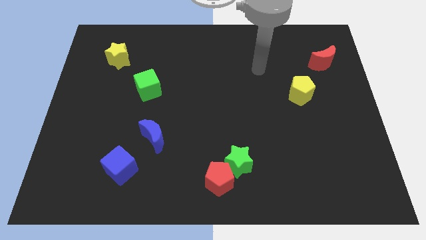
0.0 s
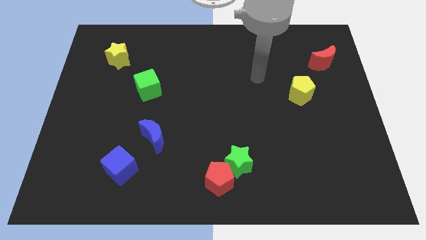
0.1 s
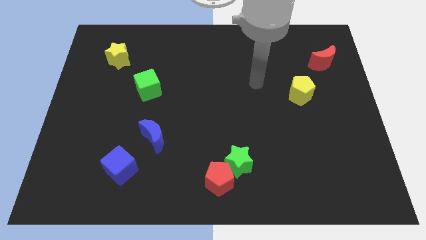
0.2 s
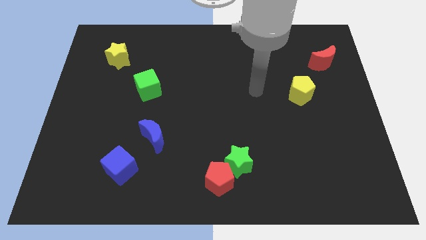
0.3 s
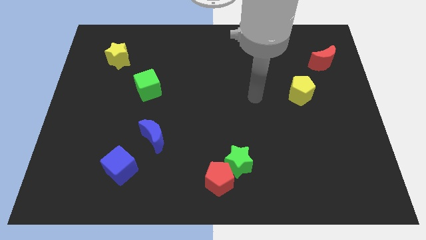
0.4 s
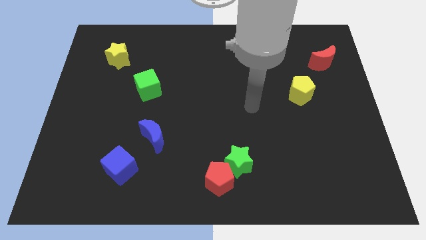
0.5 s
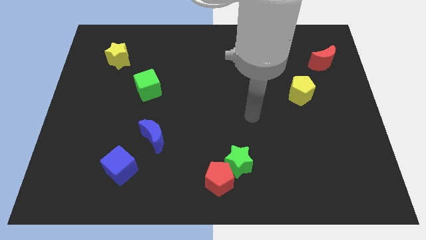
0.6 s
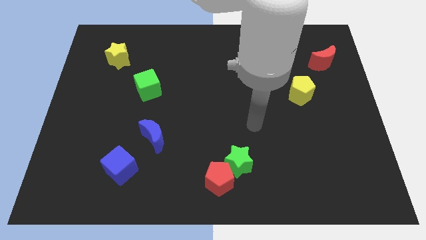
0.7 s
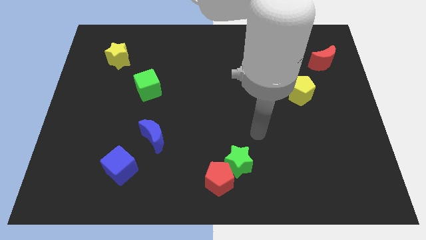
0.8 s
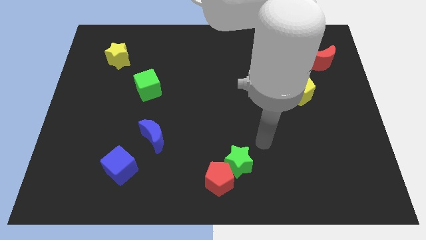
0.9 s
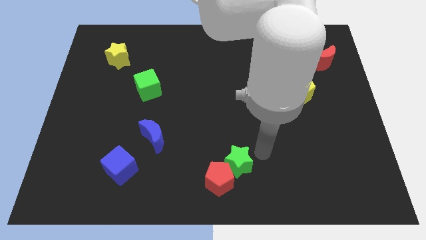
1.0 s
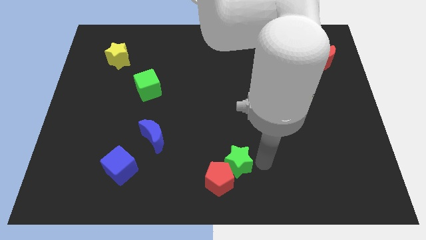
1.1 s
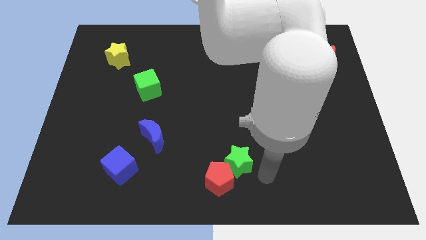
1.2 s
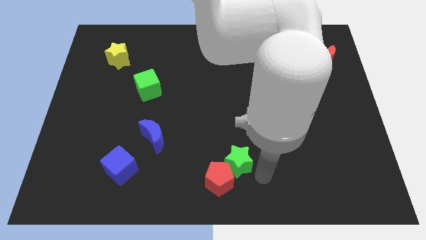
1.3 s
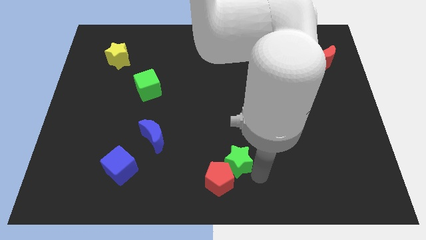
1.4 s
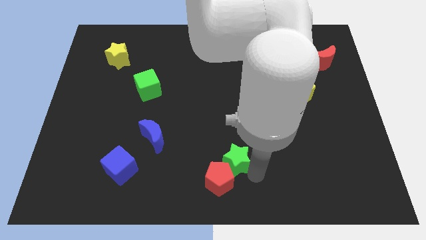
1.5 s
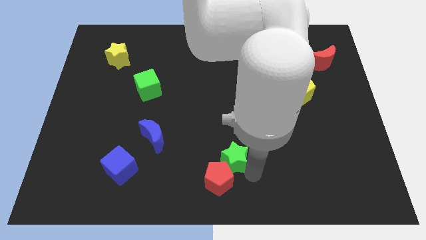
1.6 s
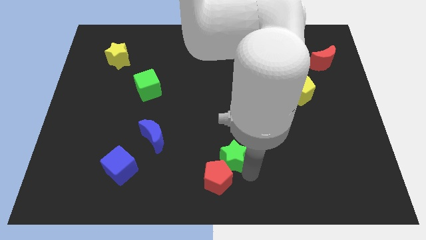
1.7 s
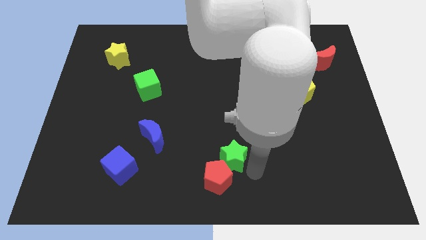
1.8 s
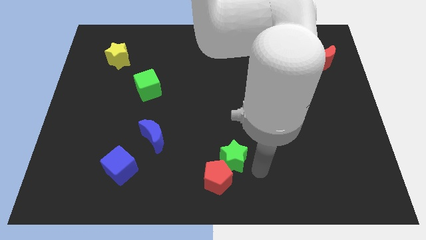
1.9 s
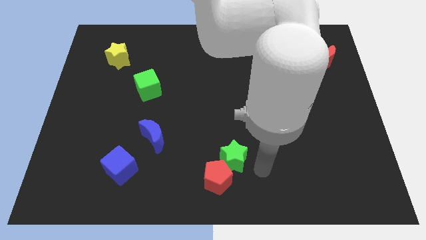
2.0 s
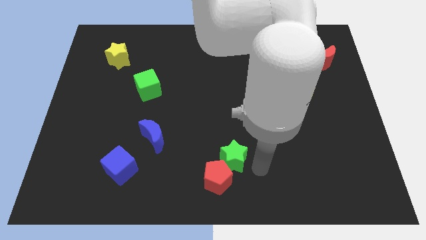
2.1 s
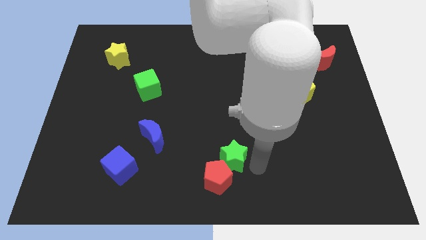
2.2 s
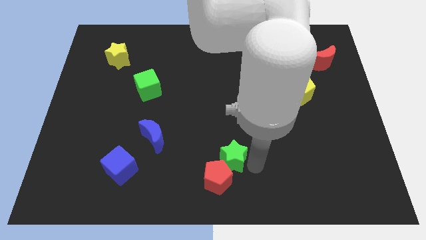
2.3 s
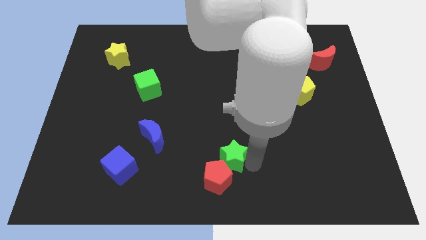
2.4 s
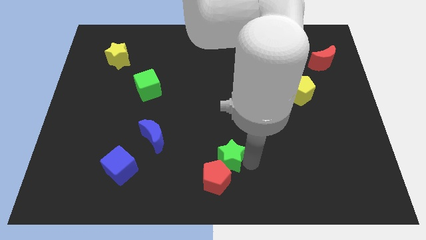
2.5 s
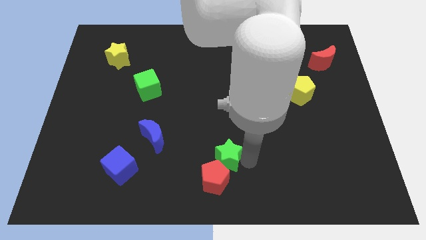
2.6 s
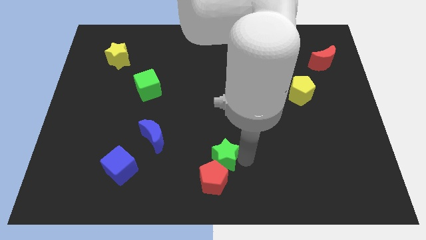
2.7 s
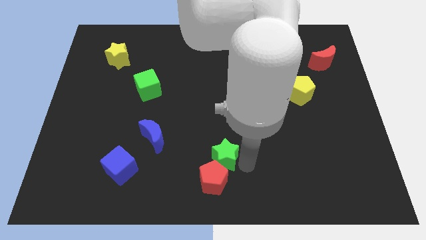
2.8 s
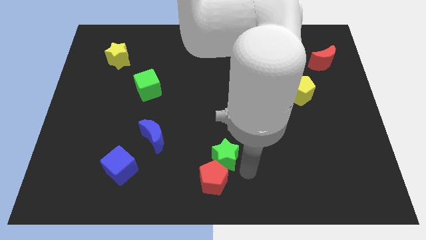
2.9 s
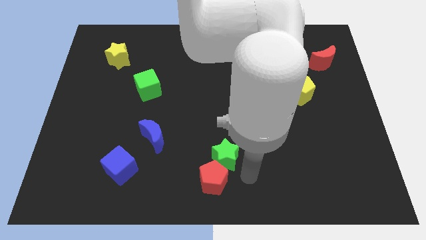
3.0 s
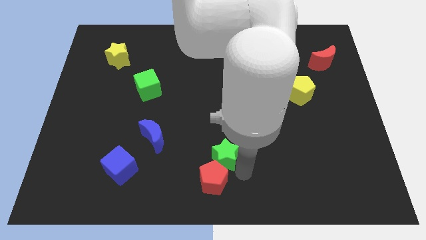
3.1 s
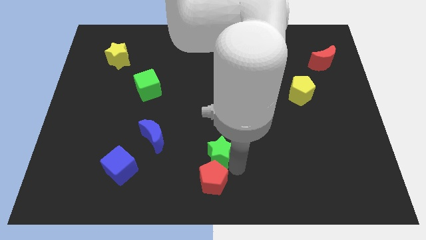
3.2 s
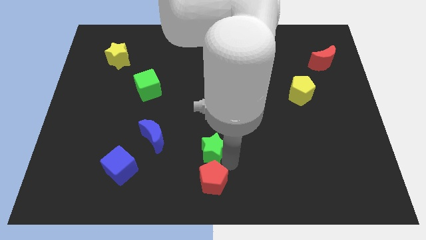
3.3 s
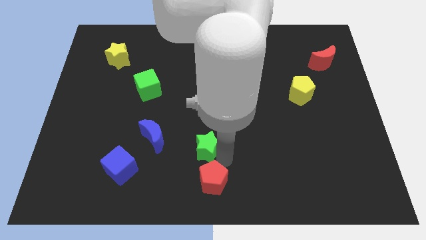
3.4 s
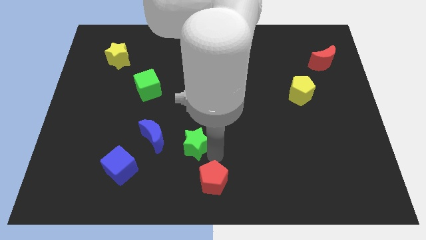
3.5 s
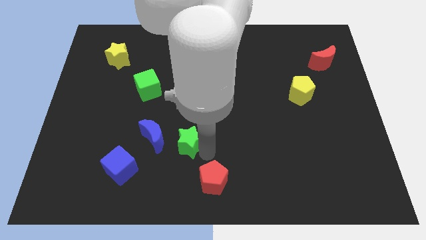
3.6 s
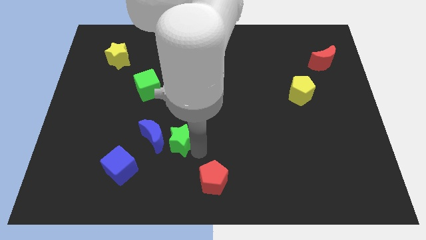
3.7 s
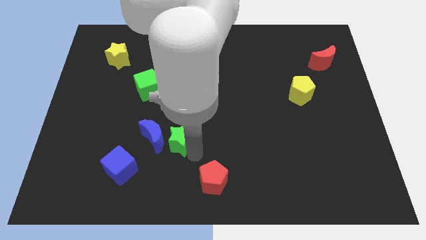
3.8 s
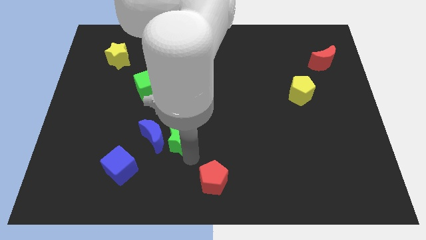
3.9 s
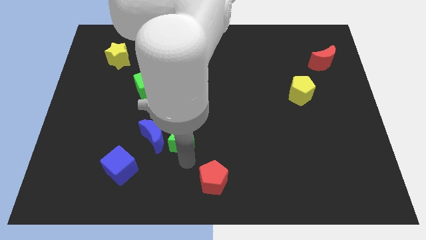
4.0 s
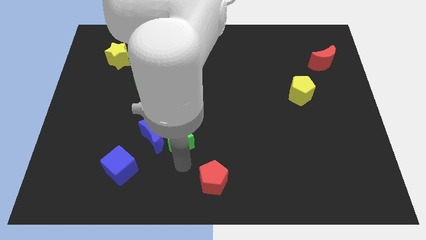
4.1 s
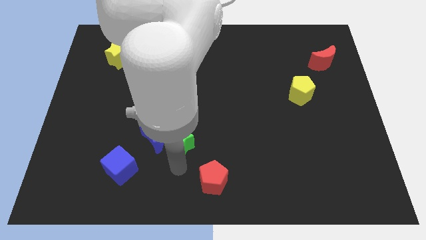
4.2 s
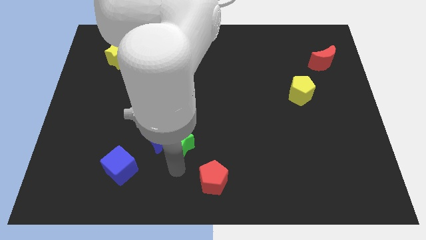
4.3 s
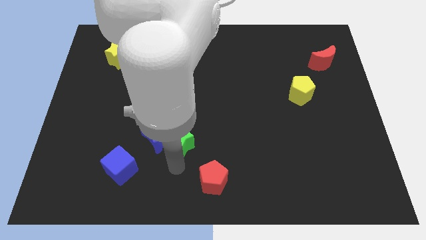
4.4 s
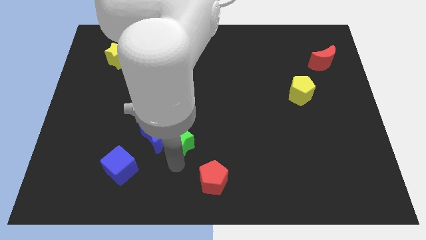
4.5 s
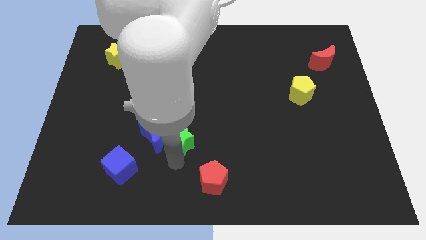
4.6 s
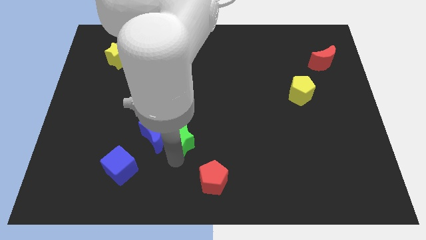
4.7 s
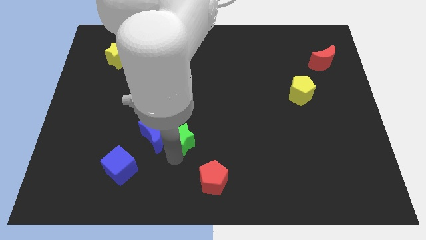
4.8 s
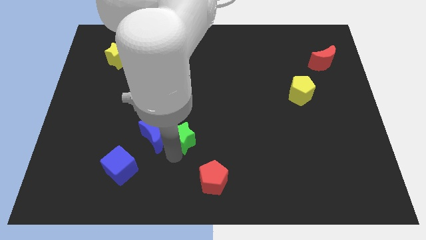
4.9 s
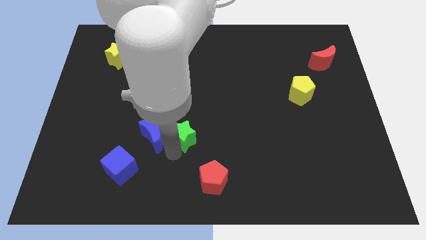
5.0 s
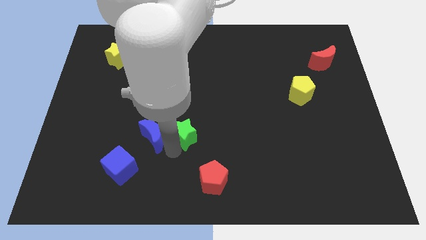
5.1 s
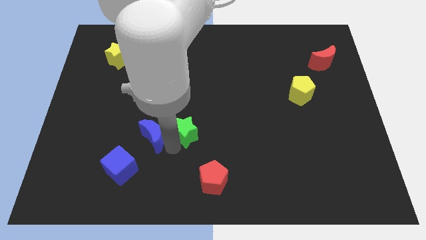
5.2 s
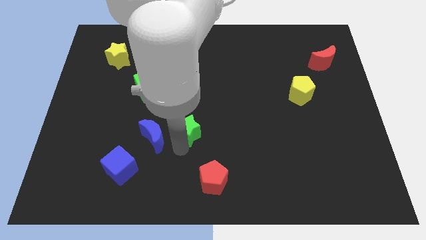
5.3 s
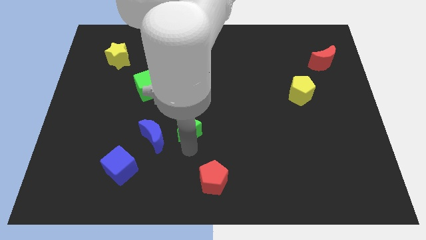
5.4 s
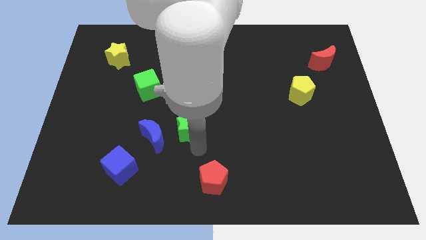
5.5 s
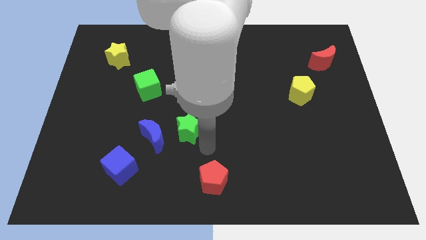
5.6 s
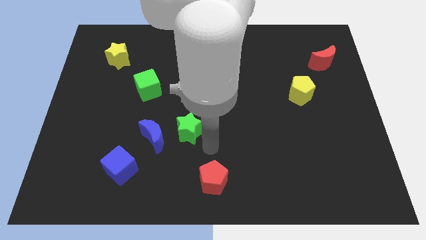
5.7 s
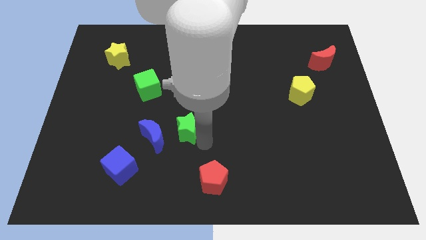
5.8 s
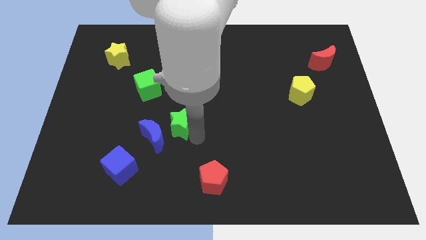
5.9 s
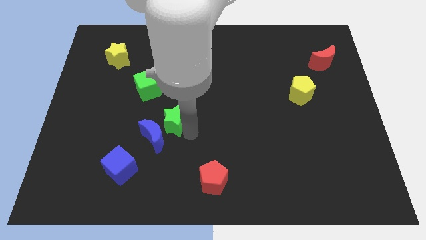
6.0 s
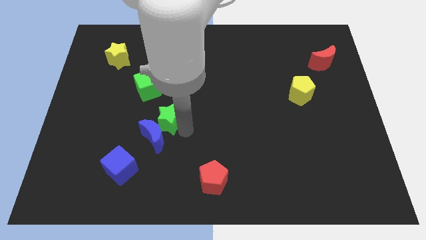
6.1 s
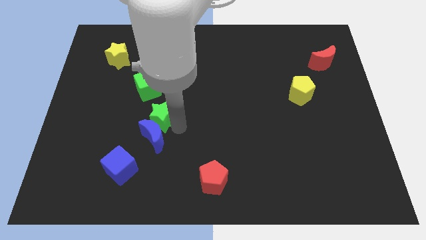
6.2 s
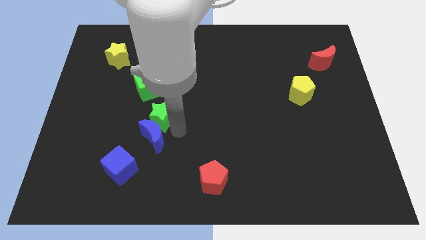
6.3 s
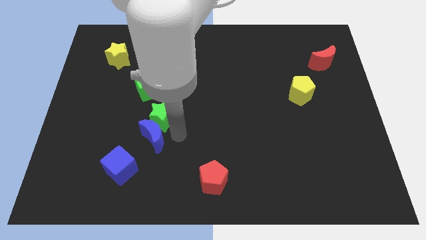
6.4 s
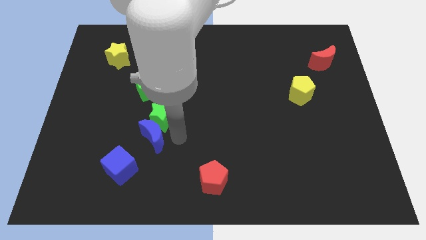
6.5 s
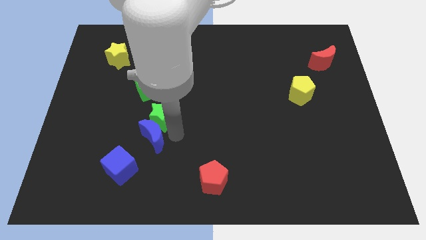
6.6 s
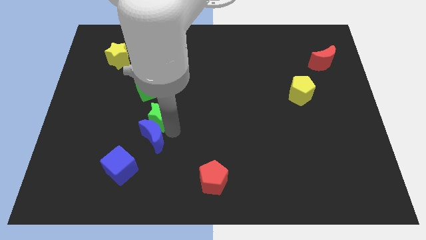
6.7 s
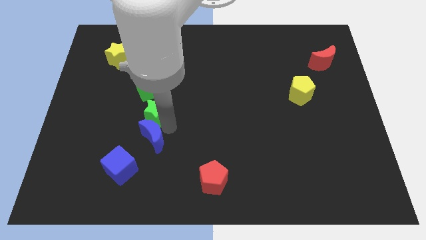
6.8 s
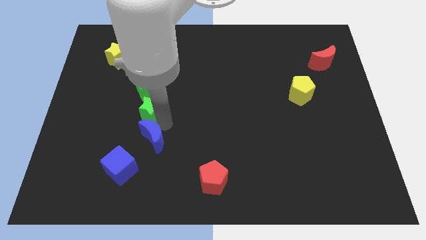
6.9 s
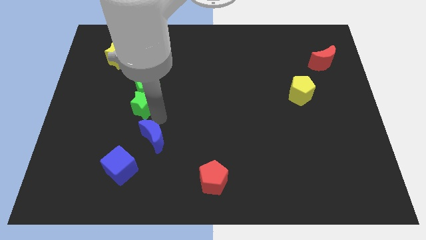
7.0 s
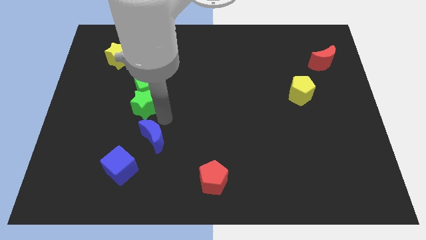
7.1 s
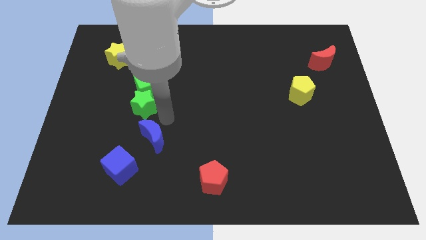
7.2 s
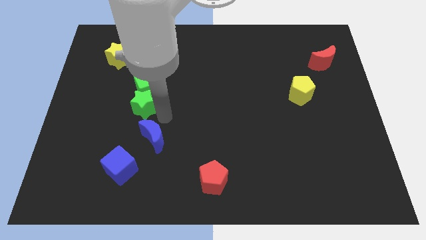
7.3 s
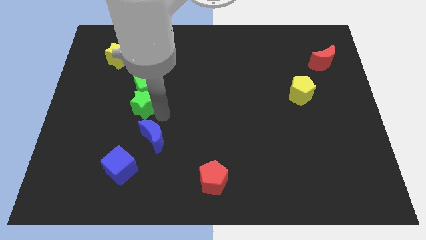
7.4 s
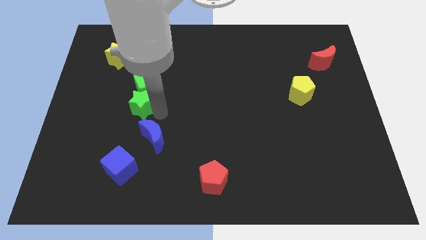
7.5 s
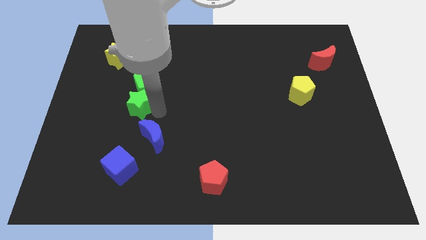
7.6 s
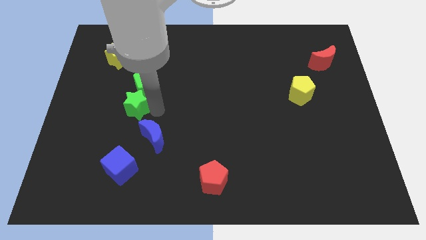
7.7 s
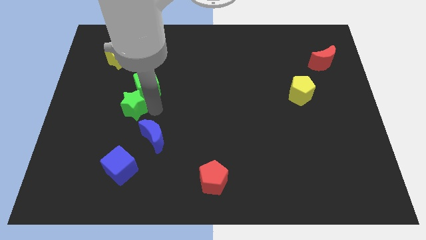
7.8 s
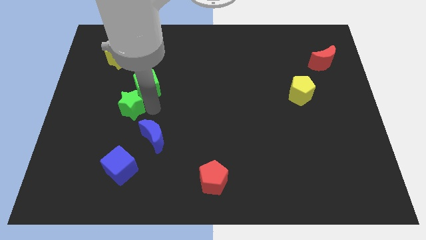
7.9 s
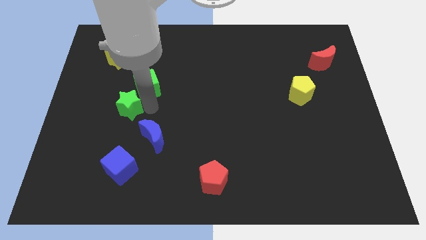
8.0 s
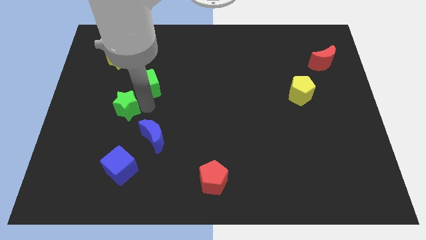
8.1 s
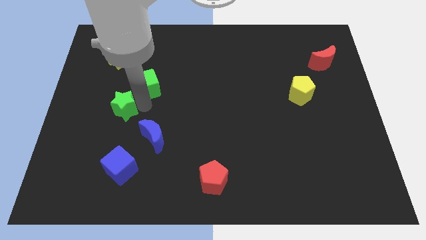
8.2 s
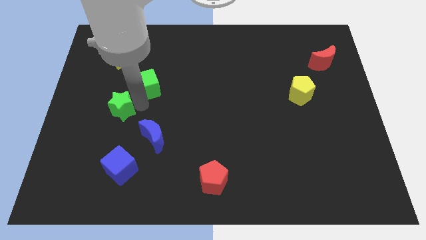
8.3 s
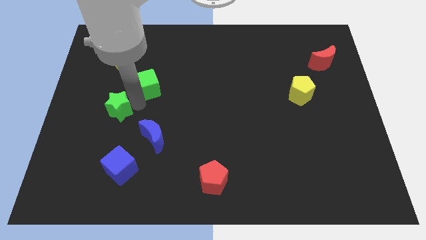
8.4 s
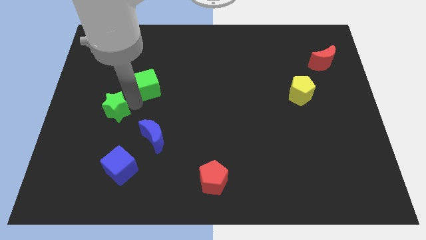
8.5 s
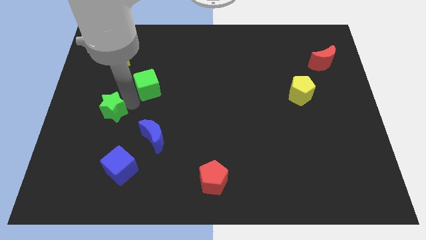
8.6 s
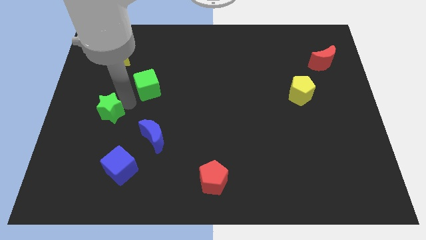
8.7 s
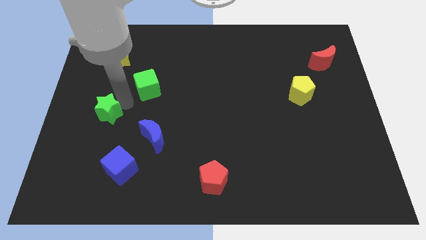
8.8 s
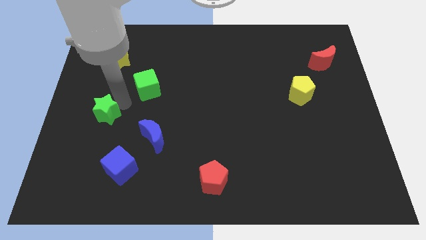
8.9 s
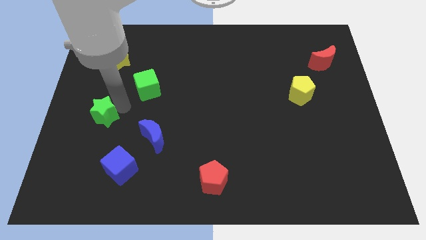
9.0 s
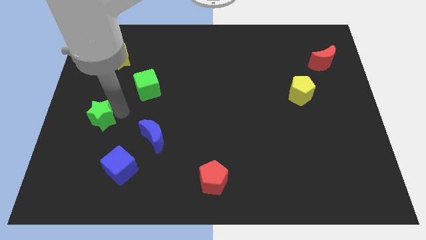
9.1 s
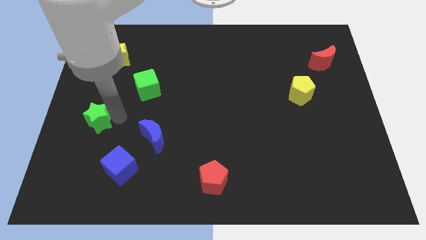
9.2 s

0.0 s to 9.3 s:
put the green star to the center left
